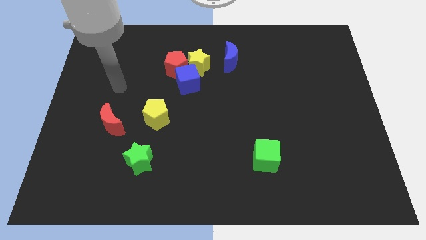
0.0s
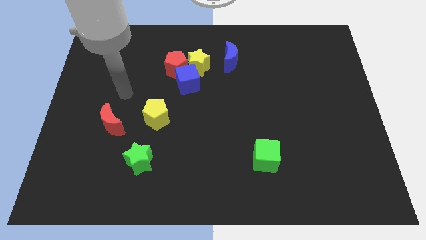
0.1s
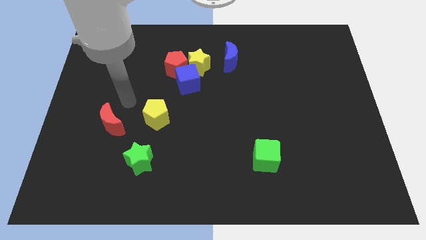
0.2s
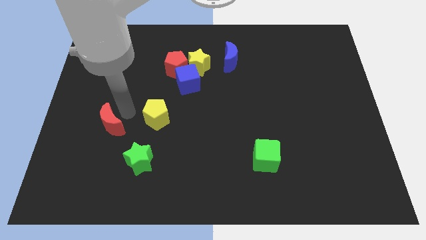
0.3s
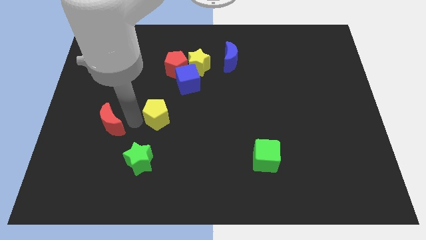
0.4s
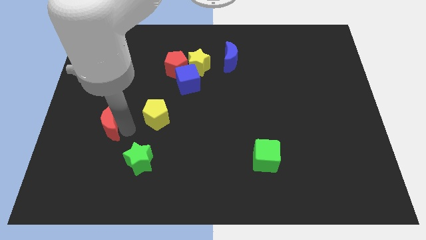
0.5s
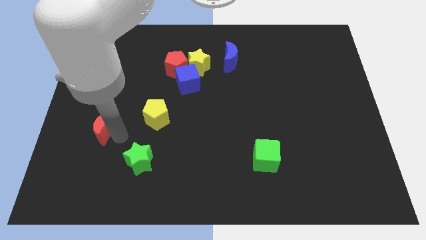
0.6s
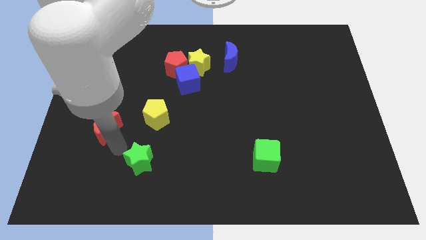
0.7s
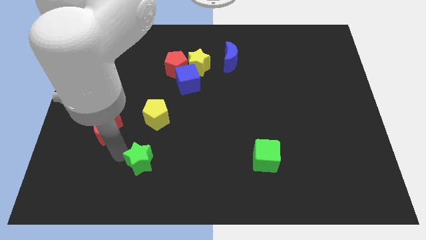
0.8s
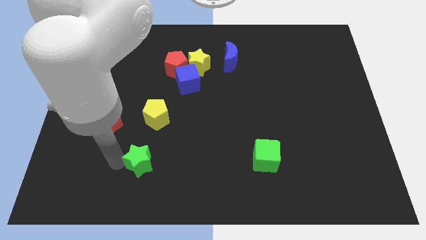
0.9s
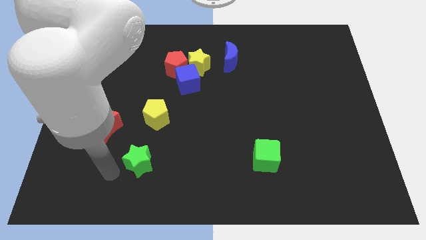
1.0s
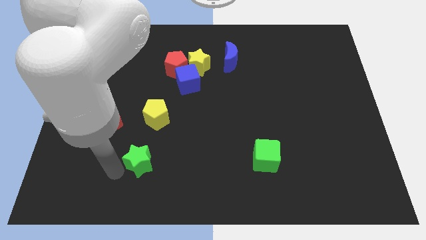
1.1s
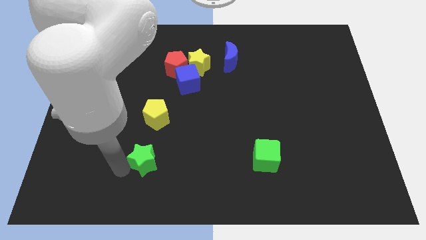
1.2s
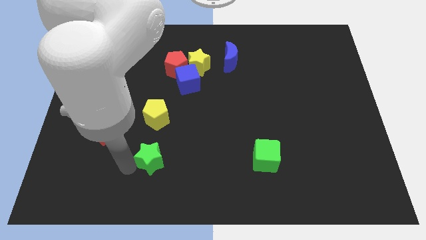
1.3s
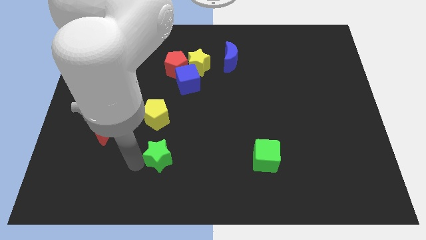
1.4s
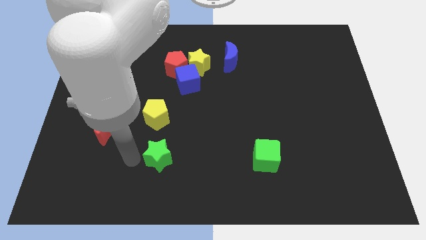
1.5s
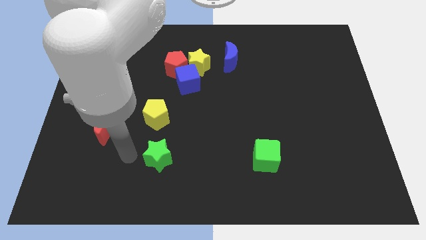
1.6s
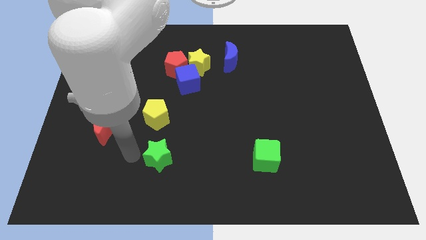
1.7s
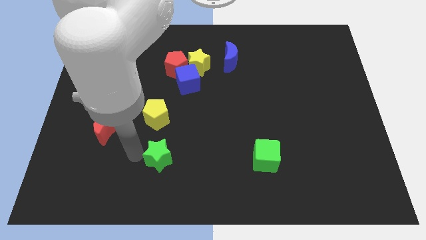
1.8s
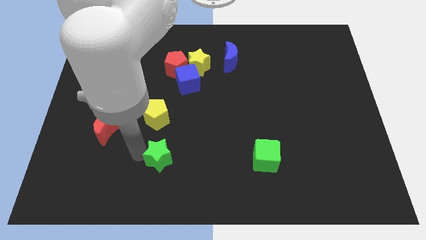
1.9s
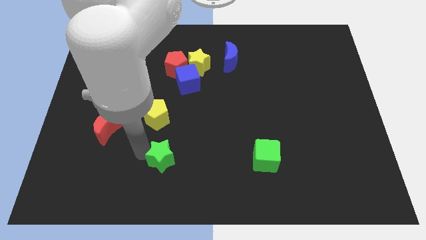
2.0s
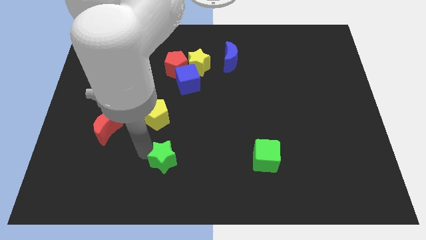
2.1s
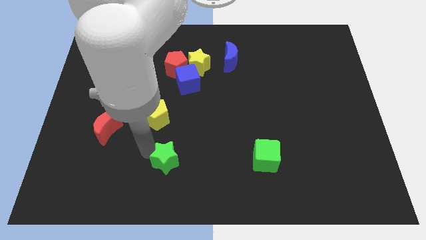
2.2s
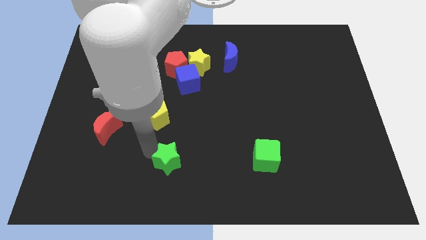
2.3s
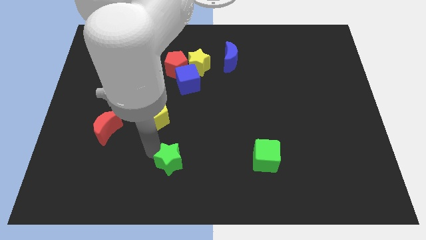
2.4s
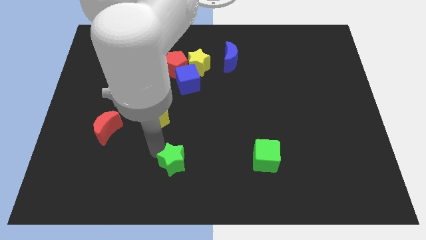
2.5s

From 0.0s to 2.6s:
move the green star right a bit

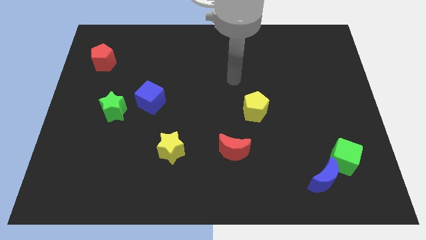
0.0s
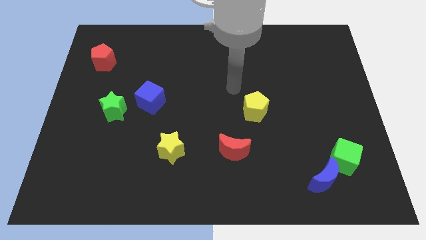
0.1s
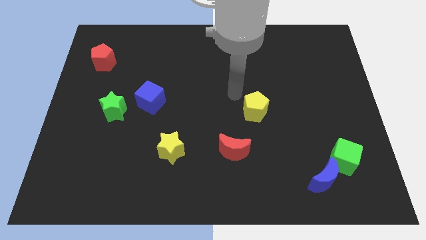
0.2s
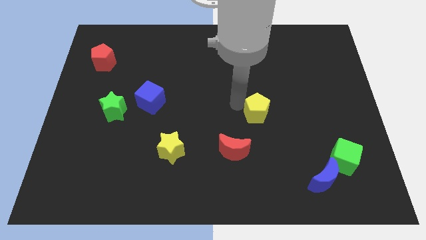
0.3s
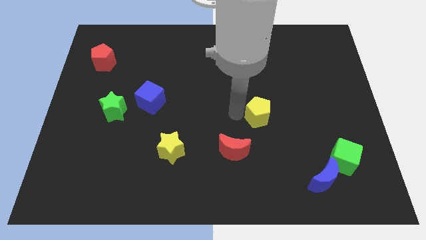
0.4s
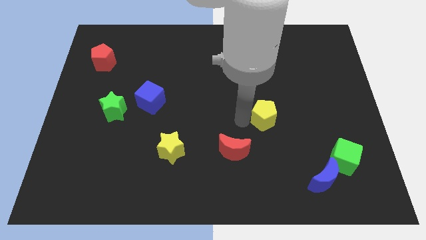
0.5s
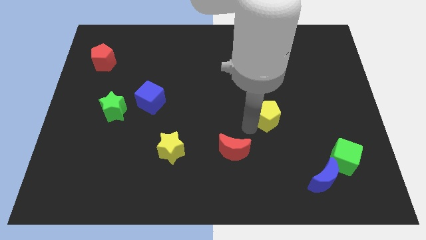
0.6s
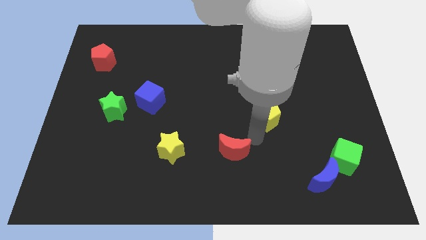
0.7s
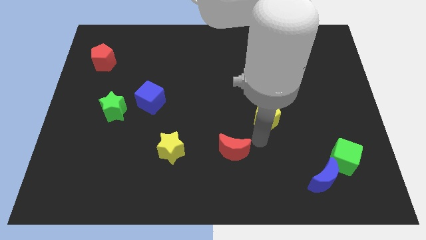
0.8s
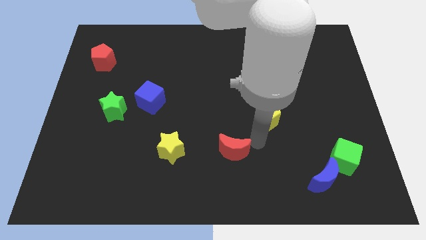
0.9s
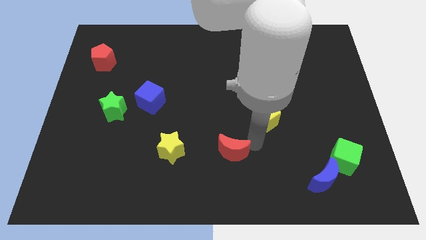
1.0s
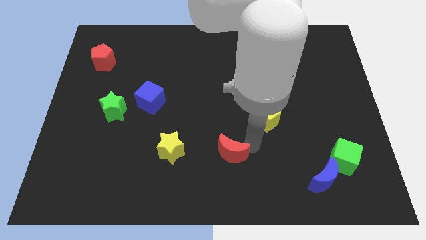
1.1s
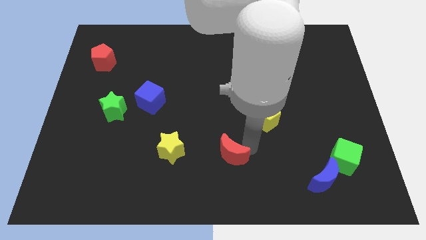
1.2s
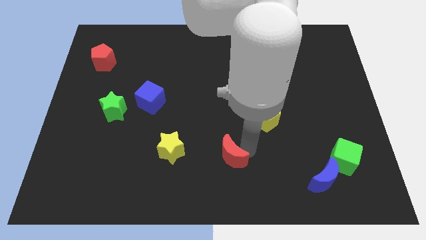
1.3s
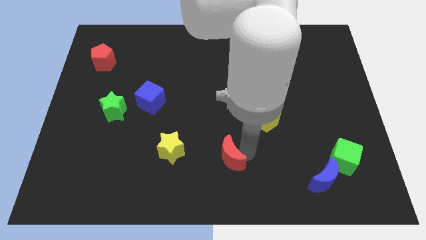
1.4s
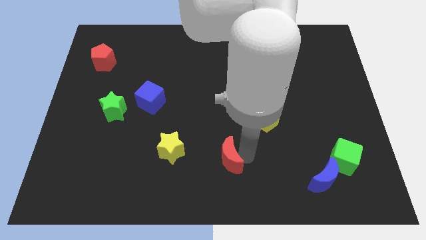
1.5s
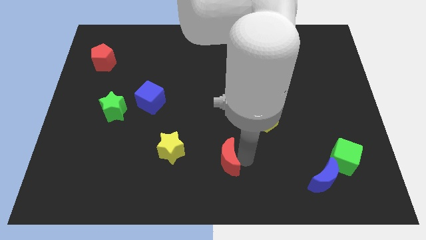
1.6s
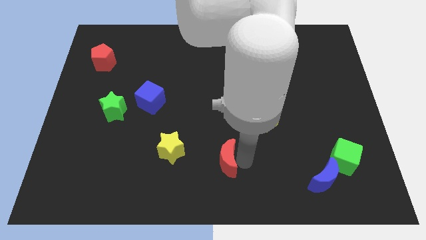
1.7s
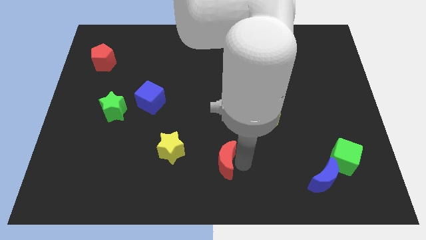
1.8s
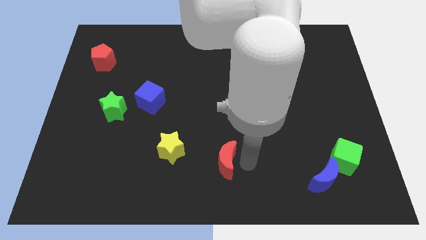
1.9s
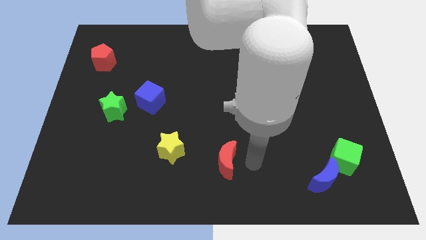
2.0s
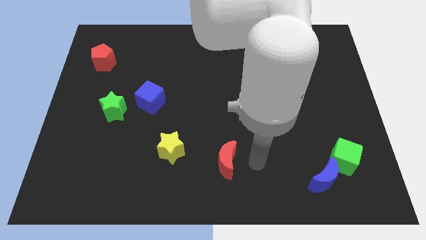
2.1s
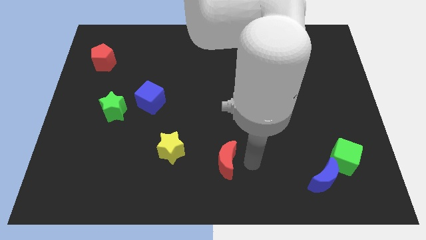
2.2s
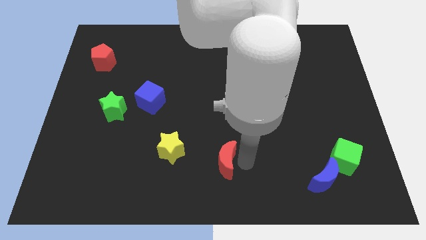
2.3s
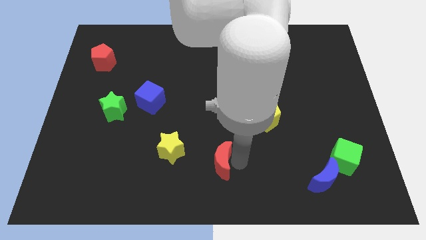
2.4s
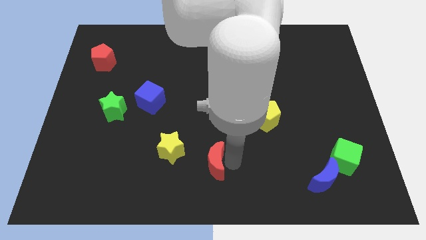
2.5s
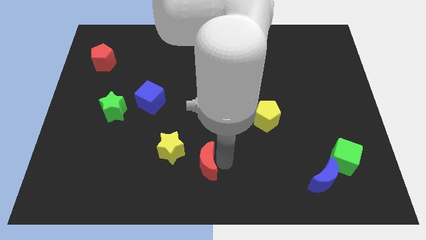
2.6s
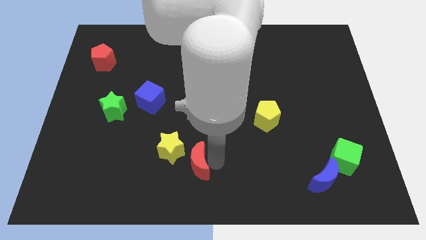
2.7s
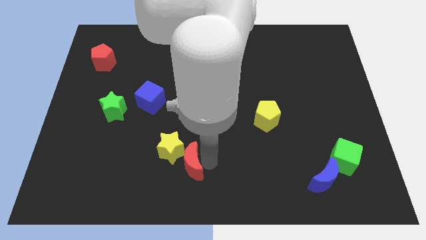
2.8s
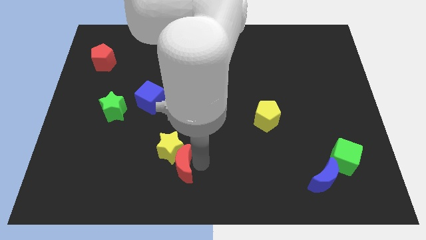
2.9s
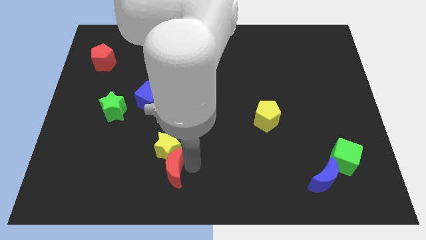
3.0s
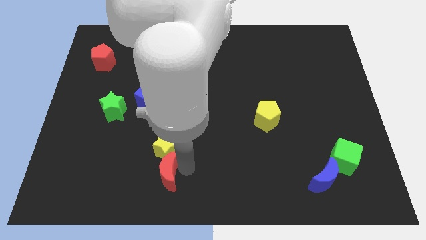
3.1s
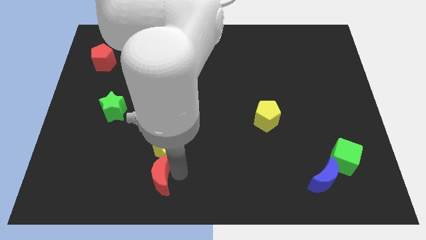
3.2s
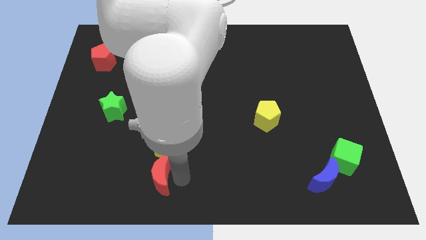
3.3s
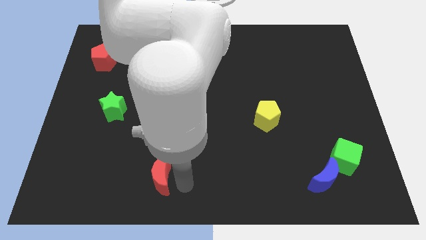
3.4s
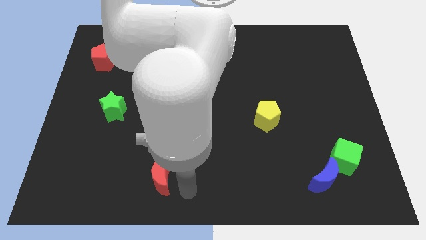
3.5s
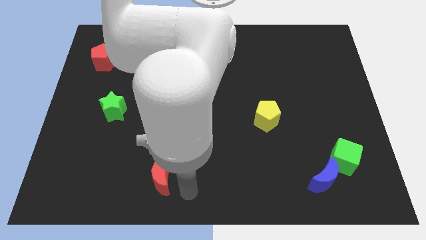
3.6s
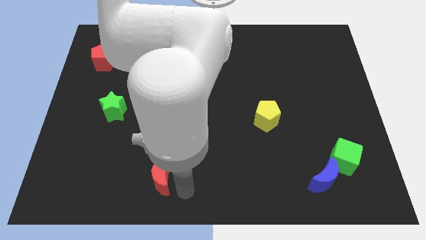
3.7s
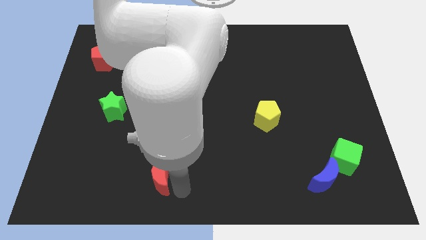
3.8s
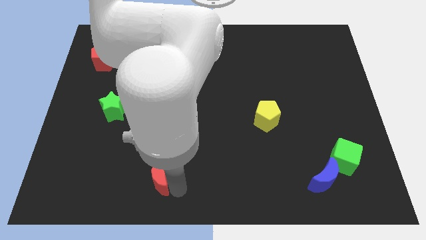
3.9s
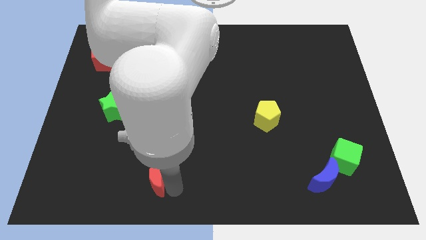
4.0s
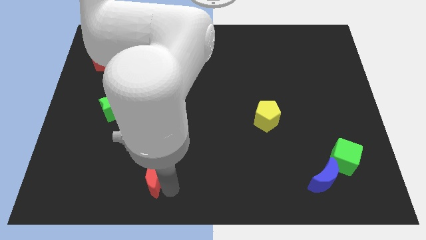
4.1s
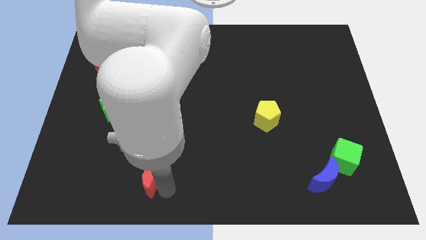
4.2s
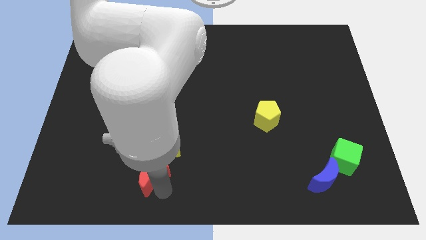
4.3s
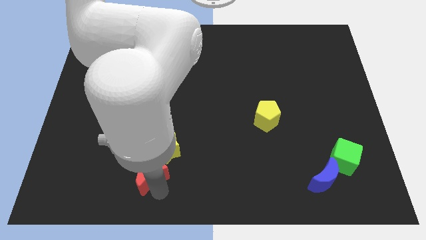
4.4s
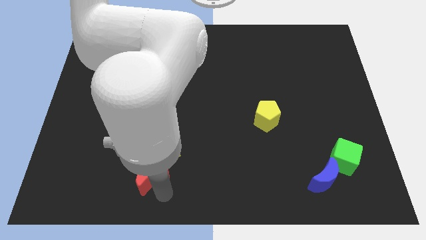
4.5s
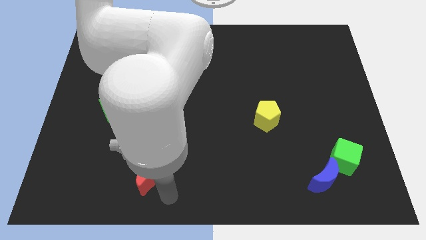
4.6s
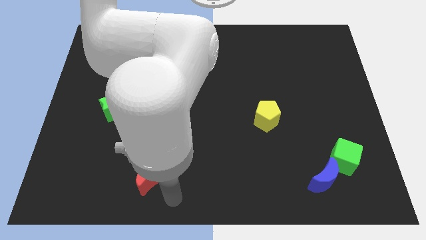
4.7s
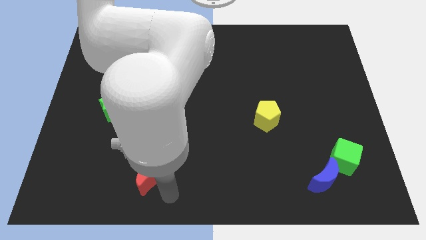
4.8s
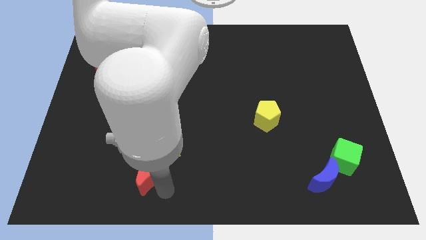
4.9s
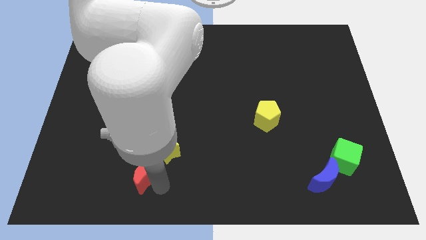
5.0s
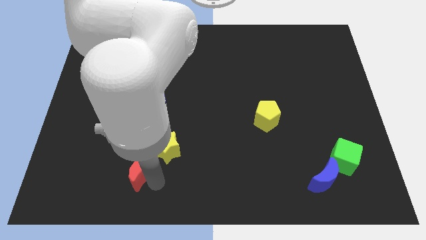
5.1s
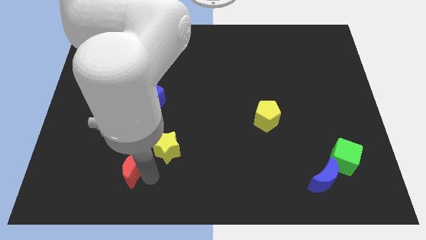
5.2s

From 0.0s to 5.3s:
push the red moon to the left

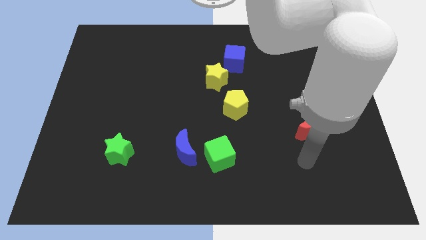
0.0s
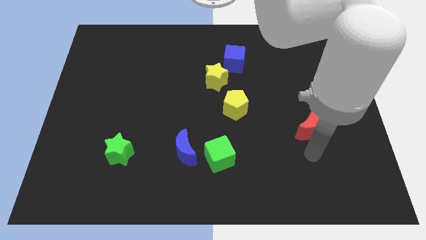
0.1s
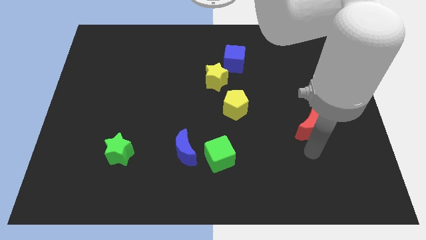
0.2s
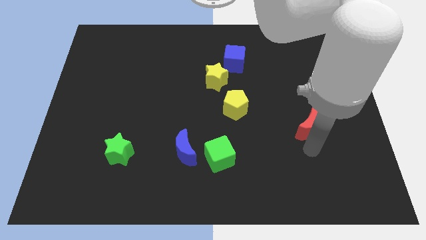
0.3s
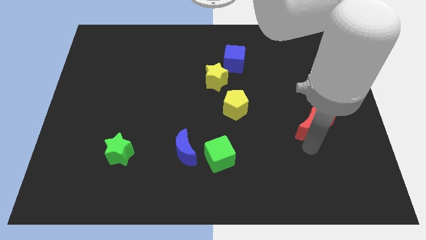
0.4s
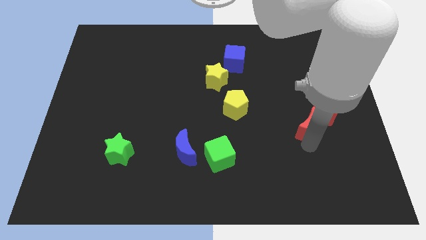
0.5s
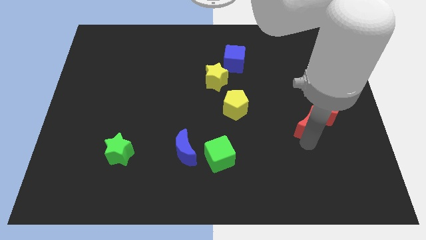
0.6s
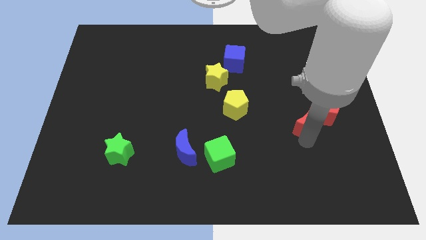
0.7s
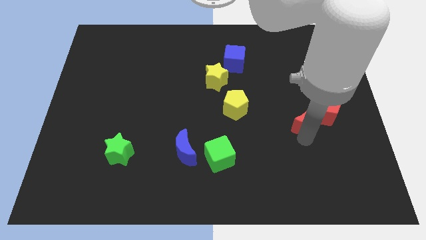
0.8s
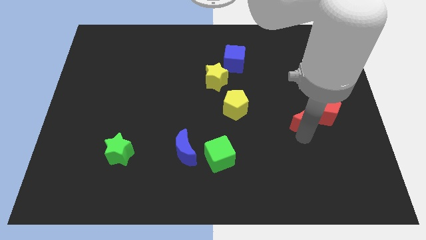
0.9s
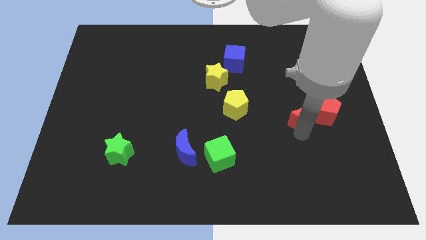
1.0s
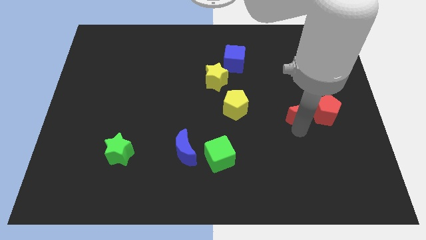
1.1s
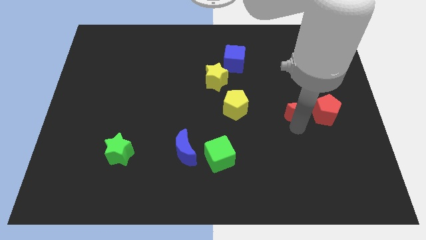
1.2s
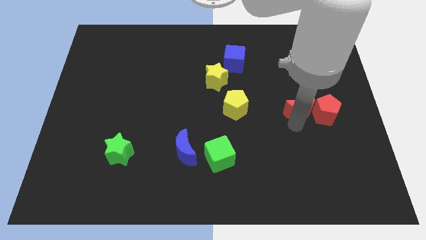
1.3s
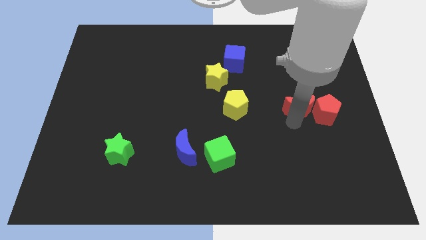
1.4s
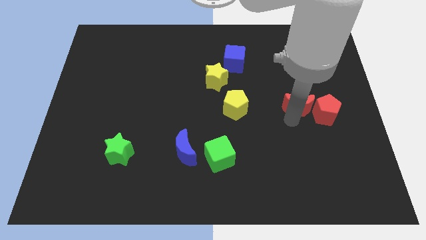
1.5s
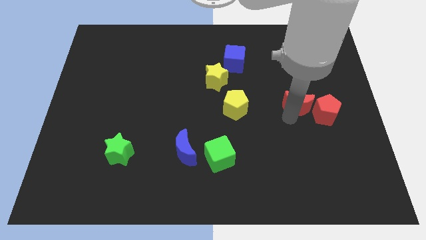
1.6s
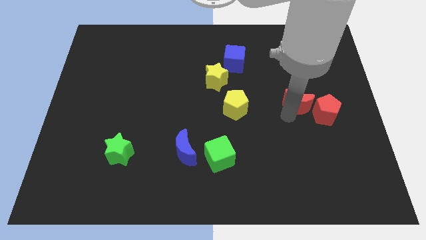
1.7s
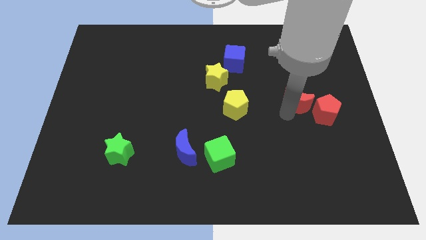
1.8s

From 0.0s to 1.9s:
slightly push the red moon upwards
